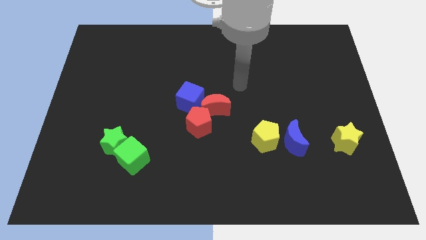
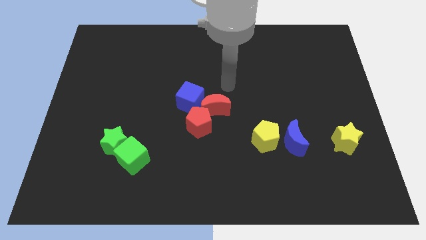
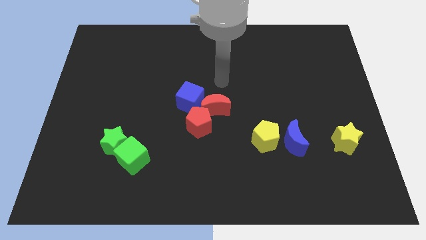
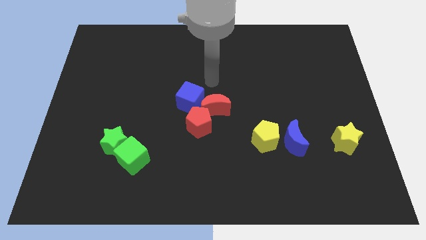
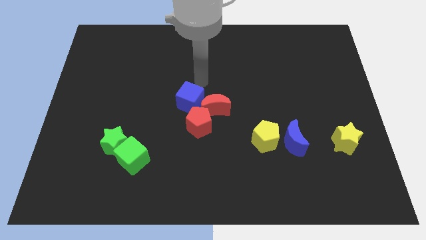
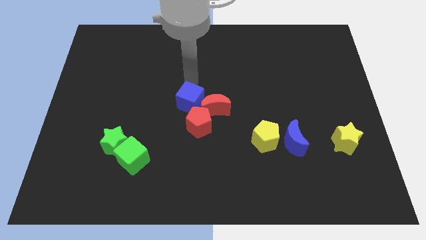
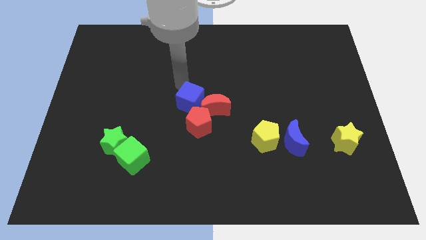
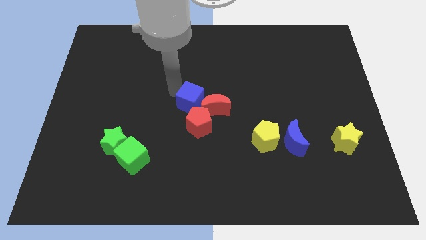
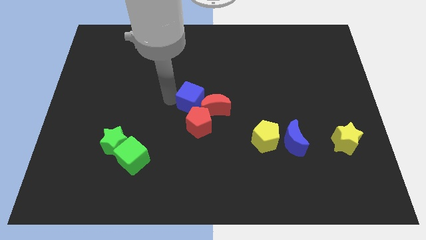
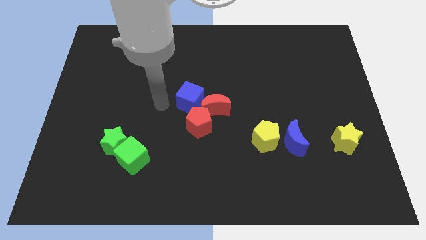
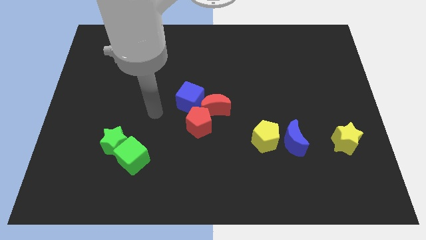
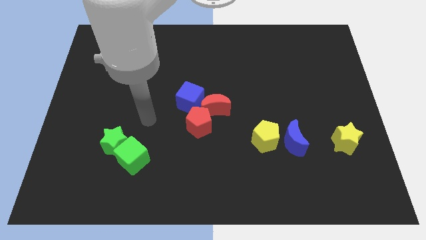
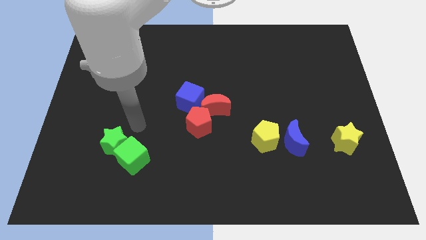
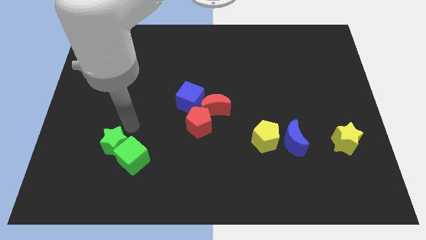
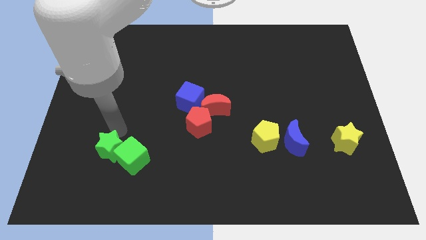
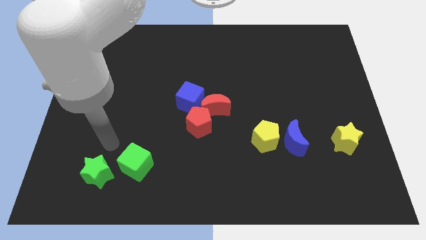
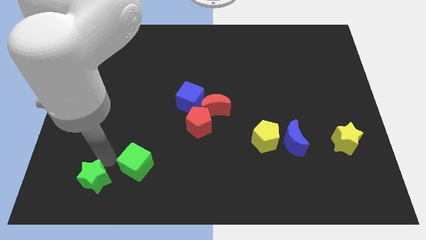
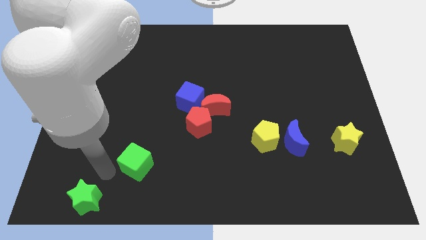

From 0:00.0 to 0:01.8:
move the green cube away from the green star

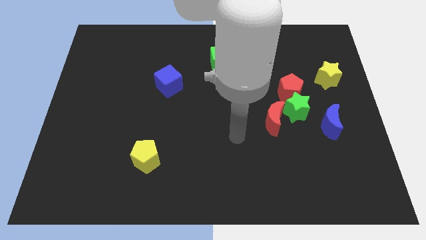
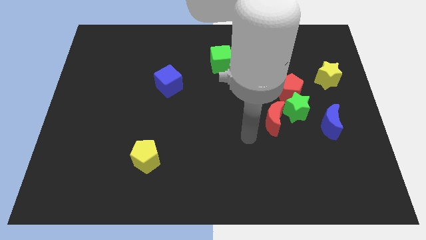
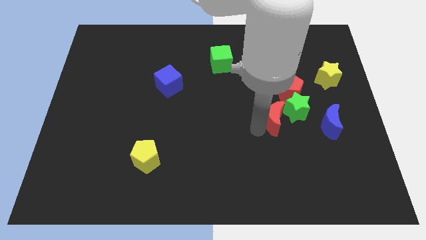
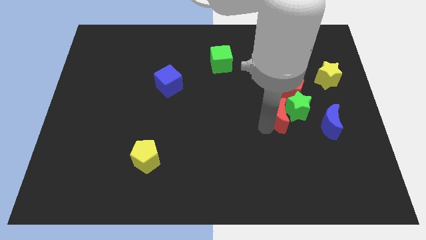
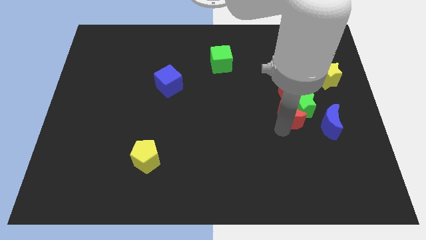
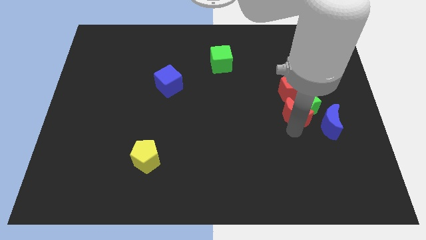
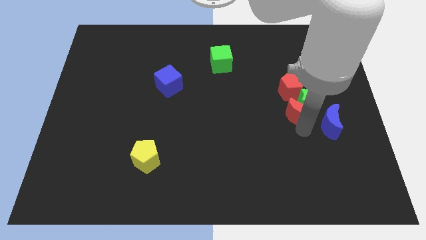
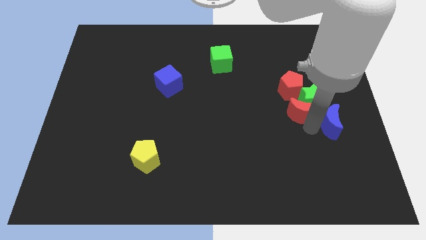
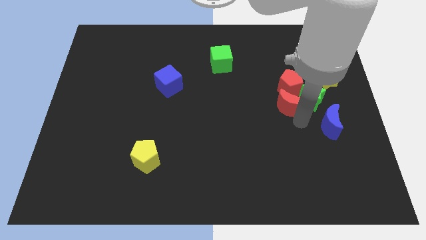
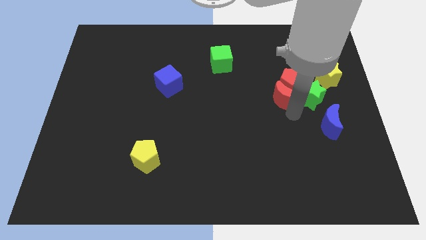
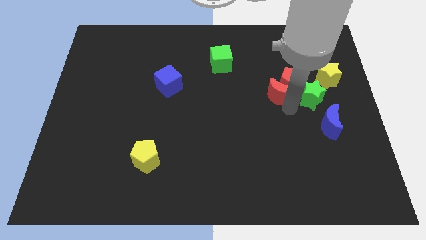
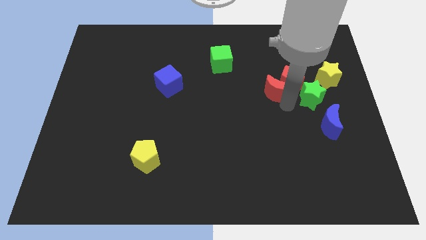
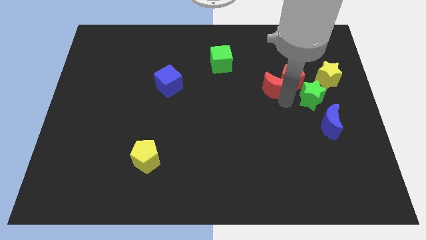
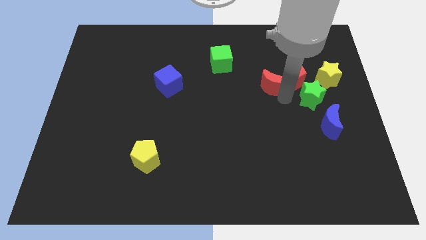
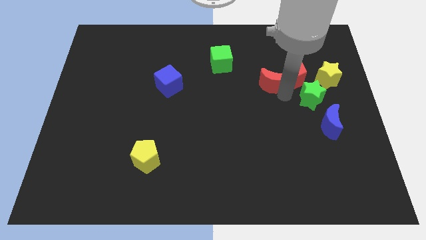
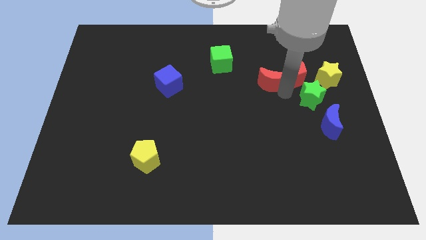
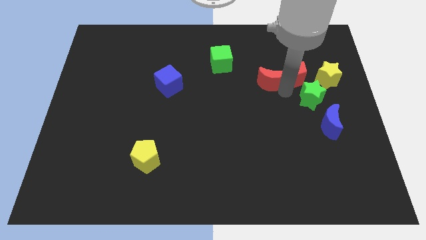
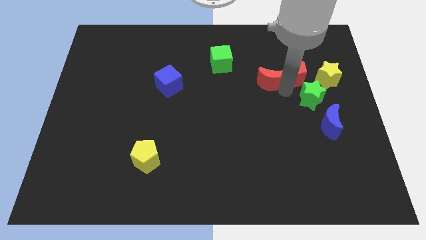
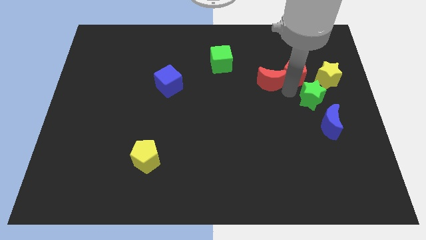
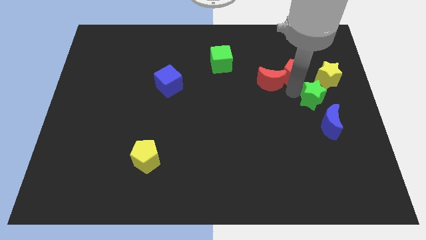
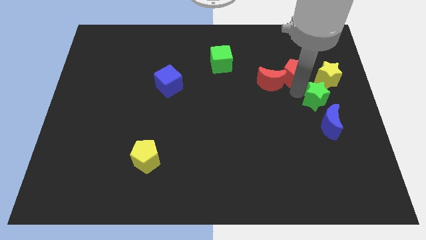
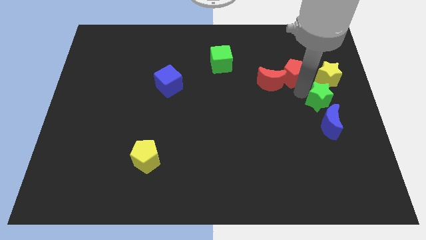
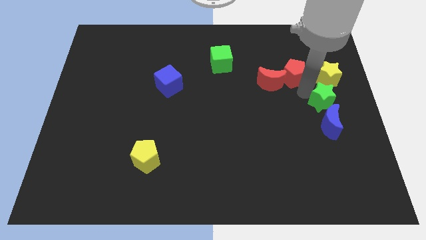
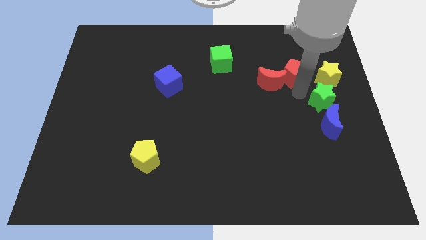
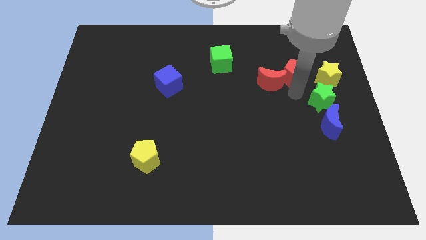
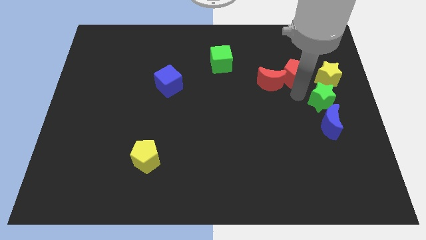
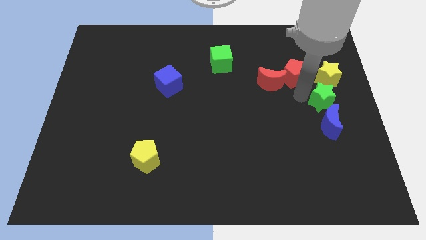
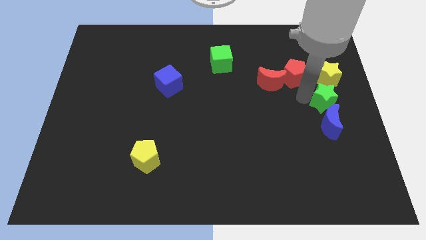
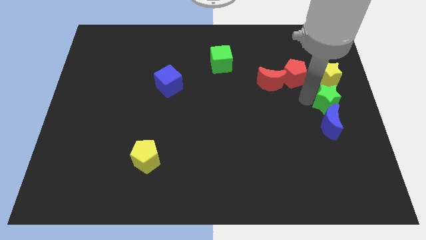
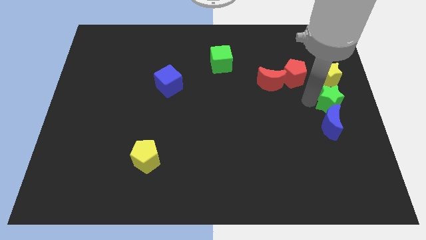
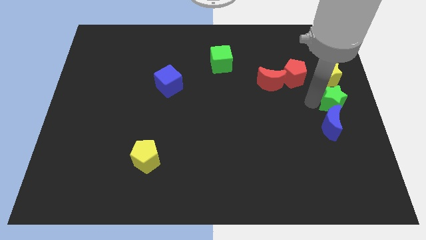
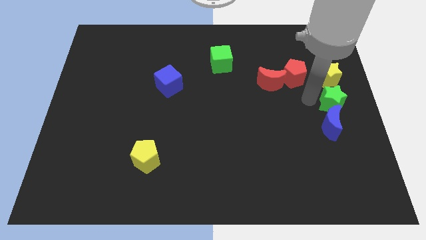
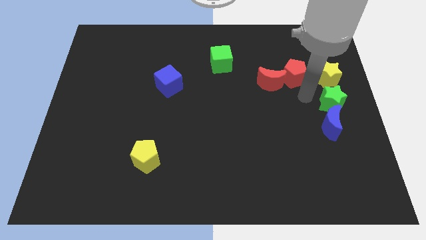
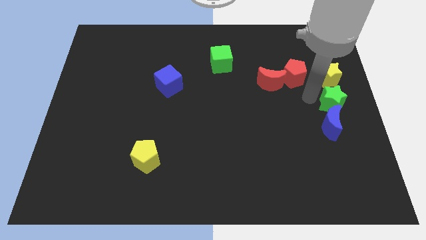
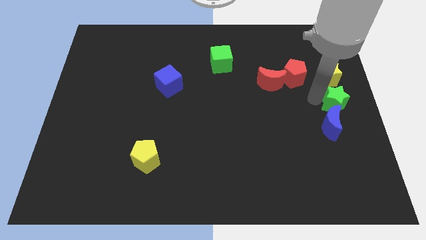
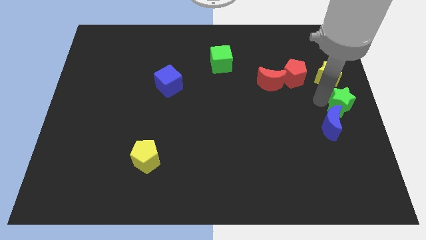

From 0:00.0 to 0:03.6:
pull the green star apart from the red pentagon, red moon, and blue moon

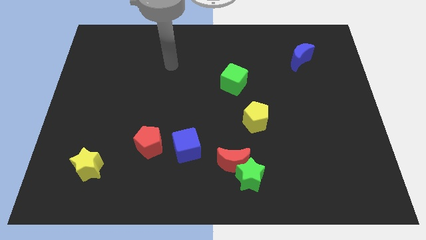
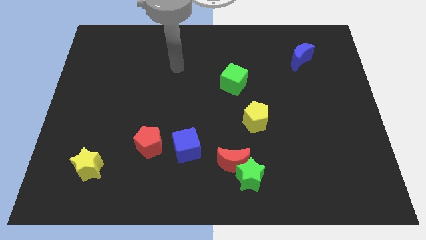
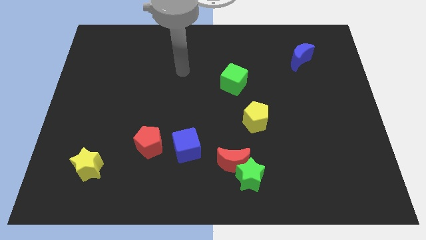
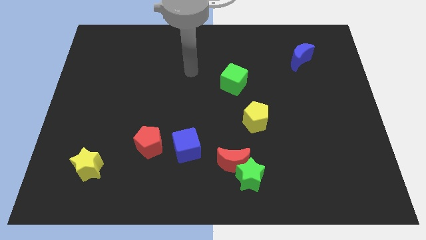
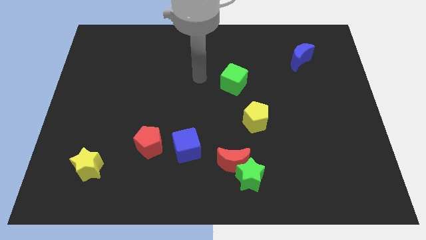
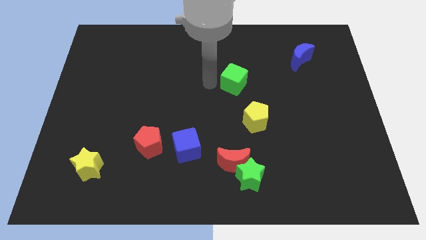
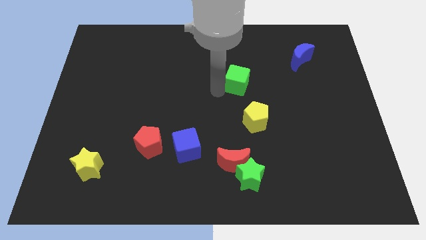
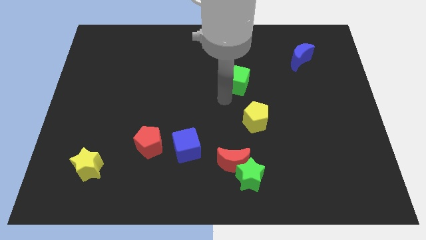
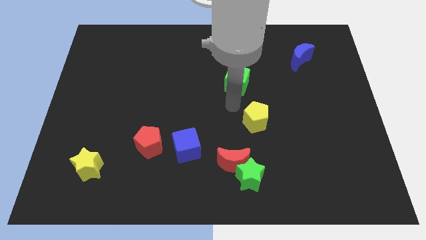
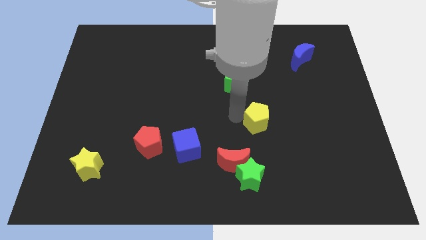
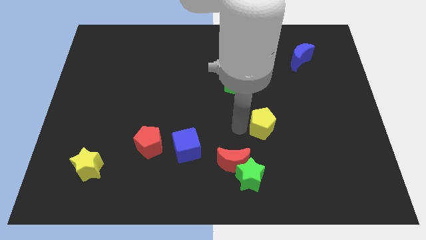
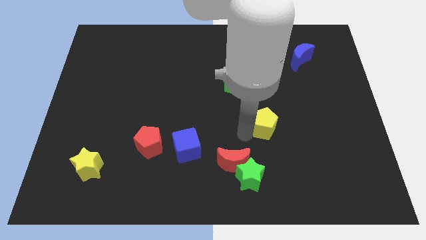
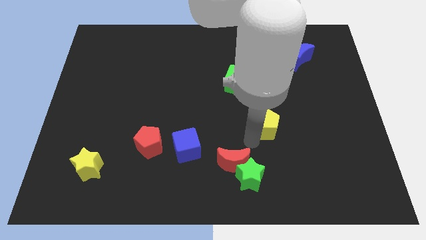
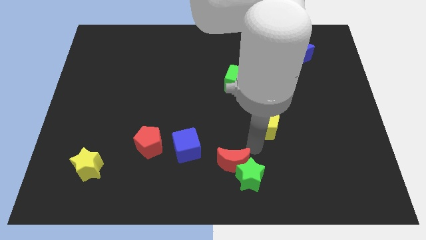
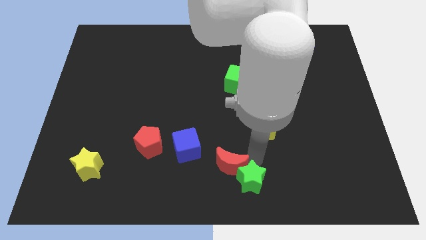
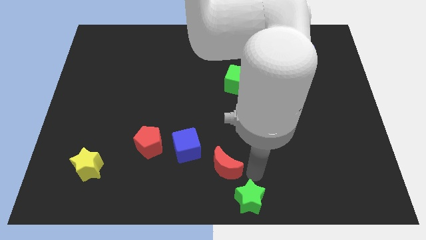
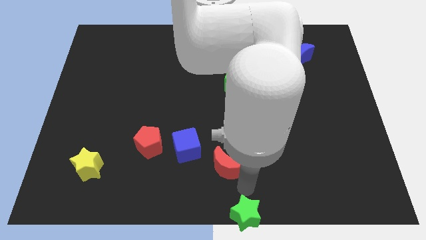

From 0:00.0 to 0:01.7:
pull the red moon apart from the green star

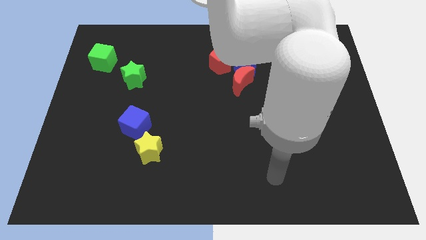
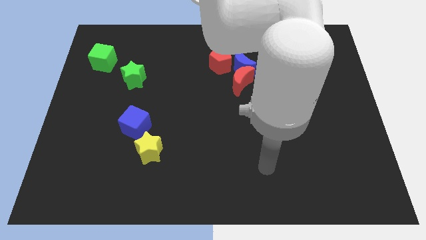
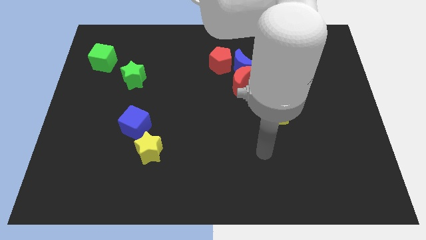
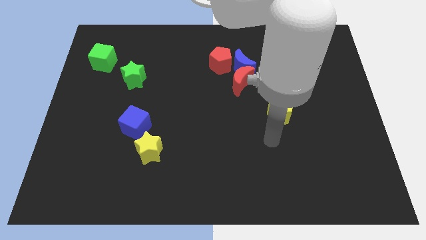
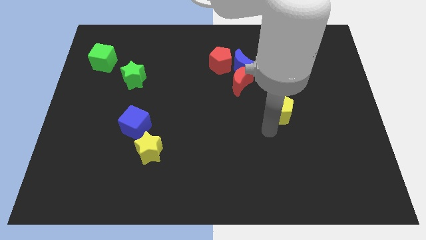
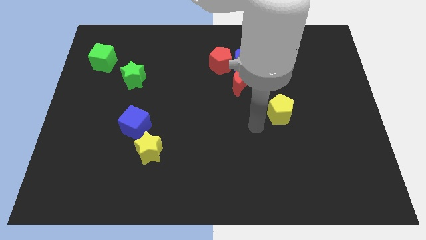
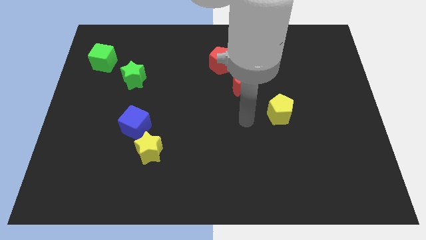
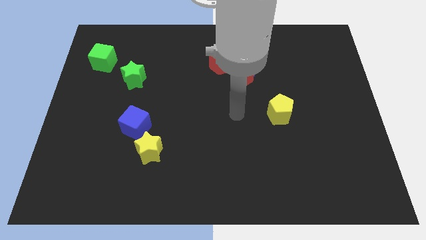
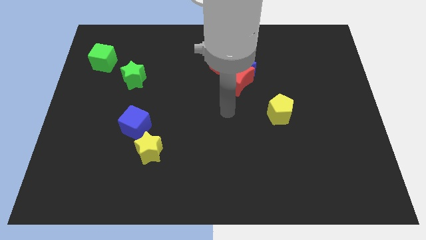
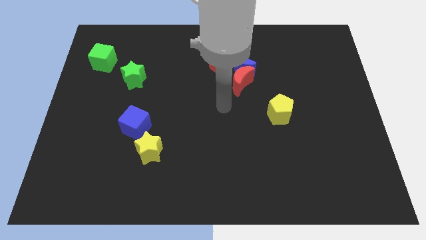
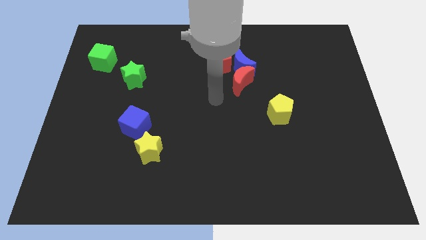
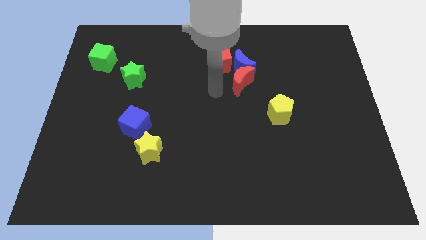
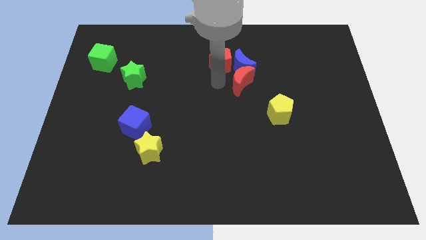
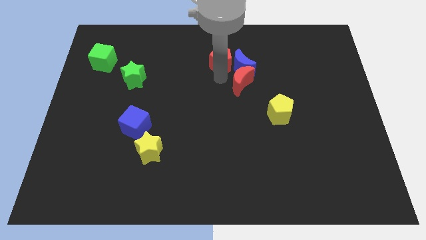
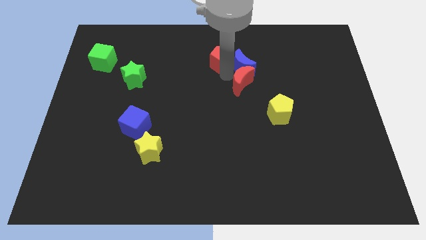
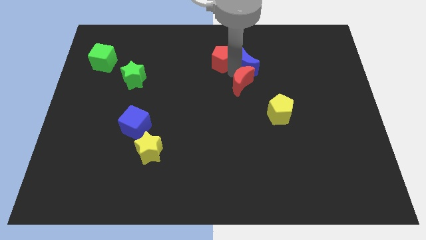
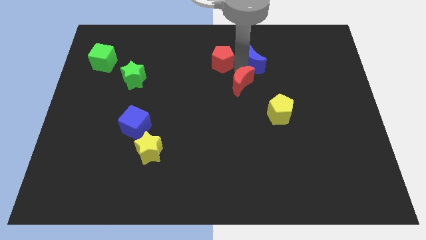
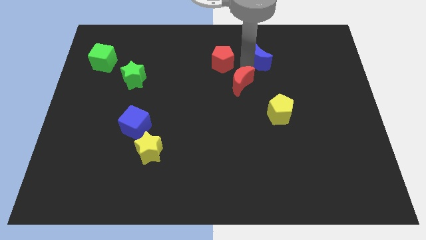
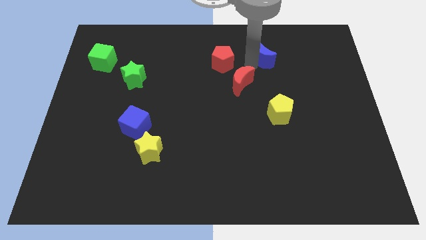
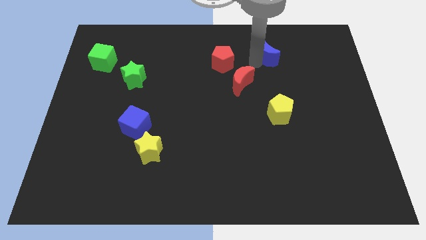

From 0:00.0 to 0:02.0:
pull the blue moon apart from the red moon and red pentagon

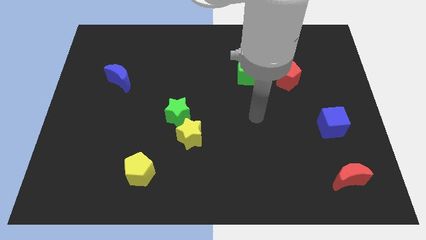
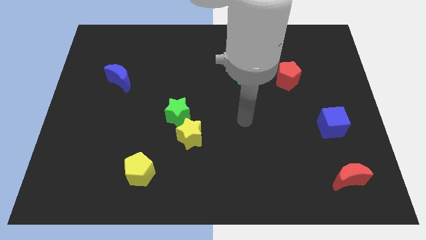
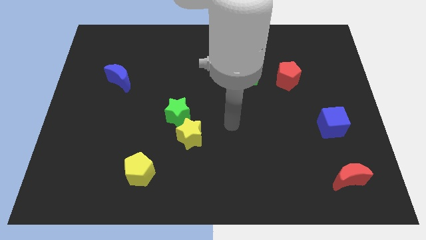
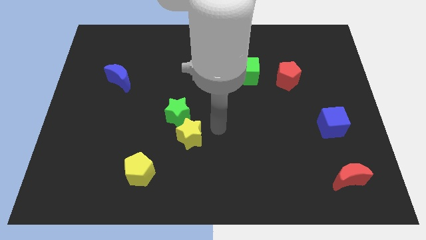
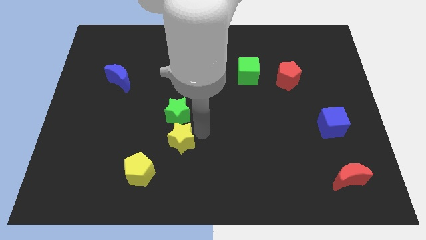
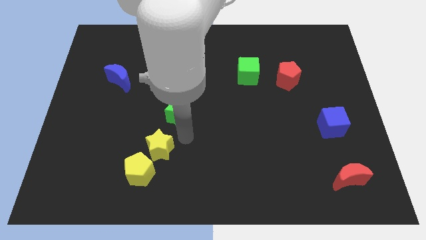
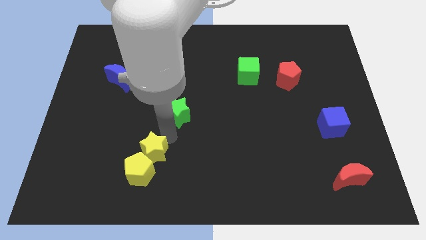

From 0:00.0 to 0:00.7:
pull the green star apart from the yellow star
